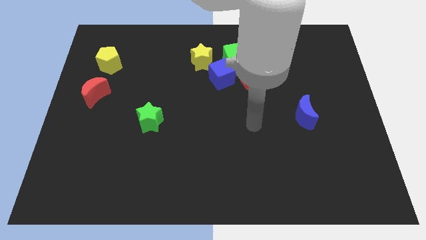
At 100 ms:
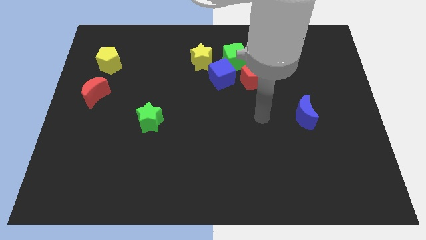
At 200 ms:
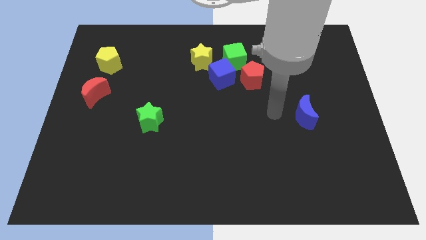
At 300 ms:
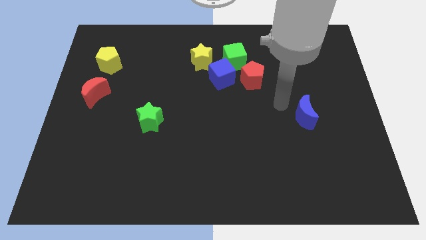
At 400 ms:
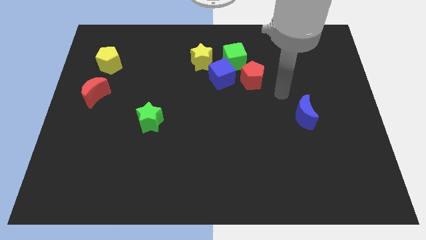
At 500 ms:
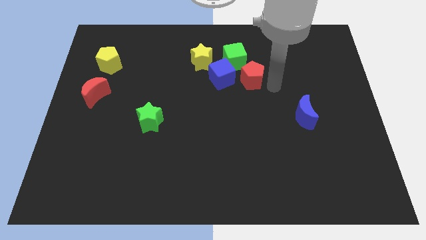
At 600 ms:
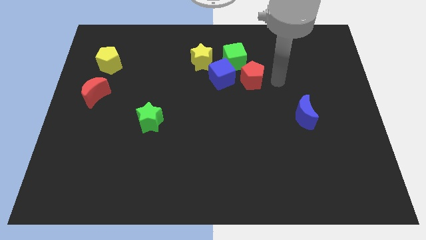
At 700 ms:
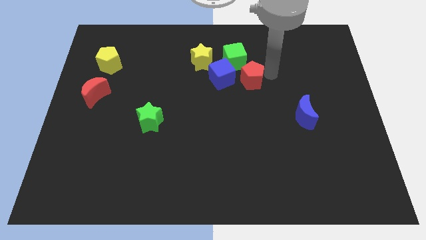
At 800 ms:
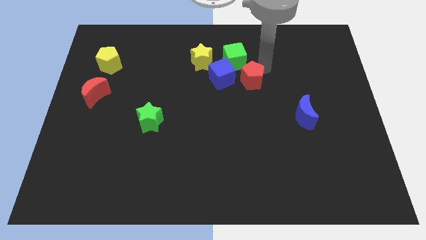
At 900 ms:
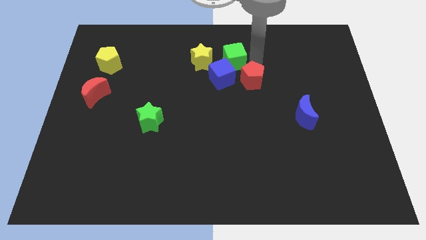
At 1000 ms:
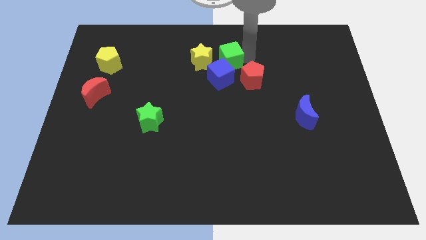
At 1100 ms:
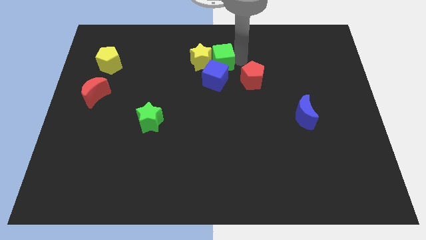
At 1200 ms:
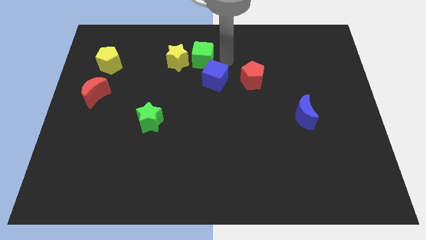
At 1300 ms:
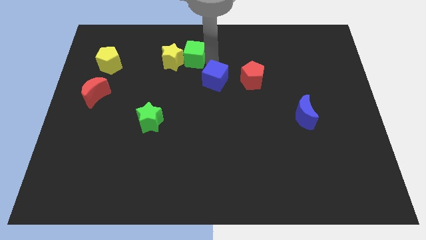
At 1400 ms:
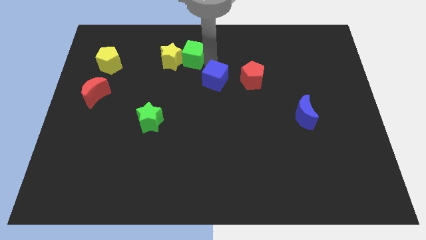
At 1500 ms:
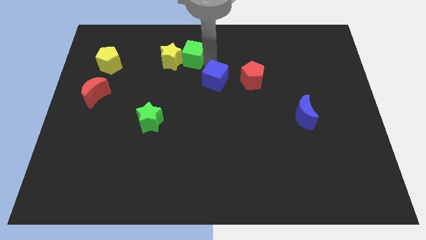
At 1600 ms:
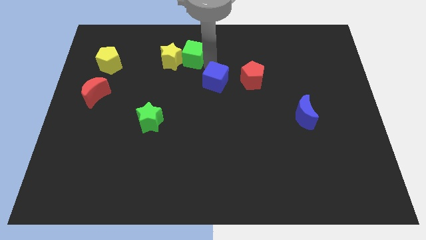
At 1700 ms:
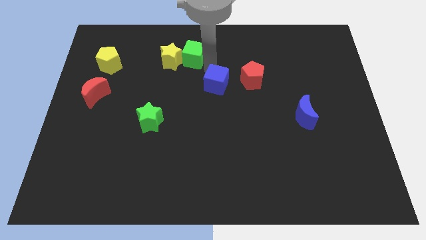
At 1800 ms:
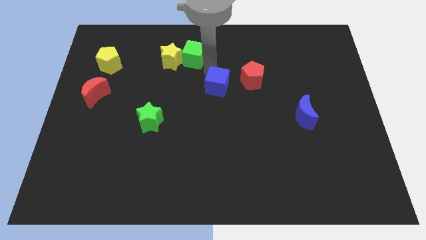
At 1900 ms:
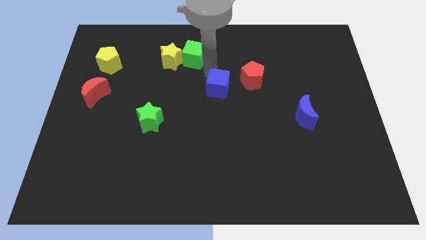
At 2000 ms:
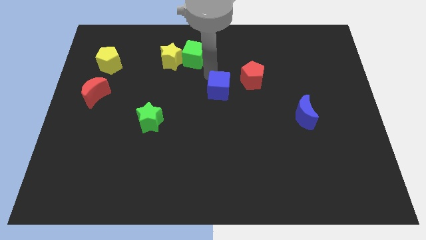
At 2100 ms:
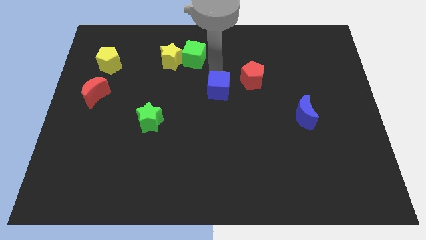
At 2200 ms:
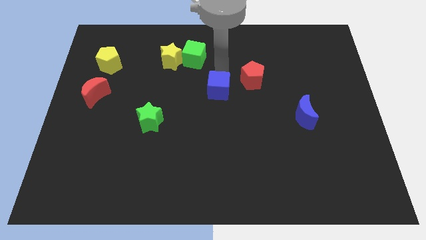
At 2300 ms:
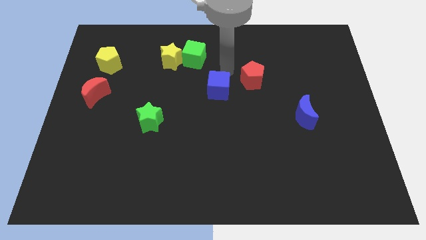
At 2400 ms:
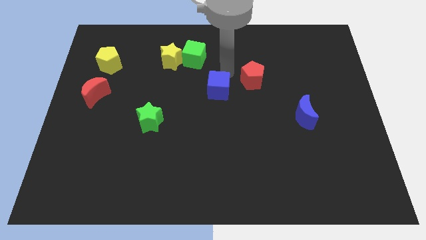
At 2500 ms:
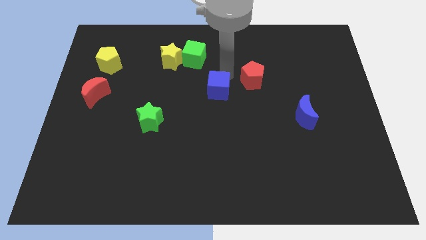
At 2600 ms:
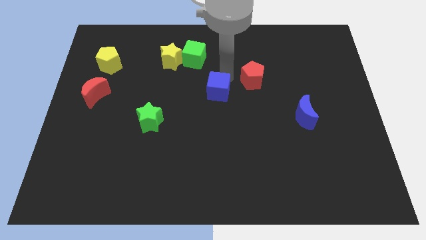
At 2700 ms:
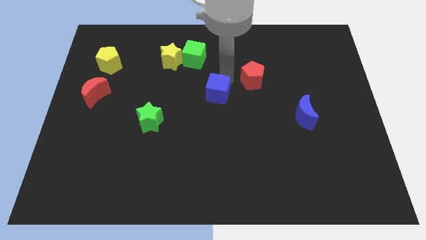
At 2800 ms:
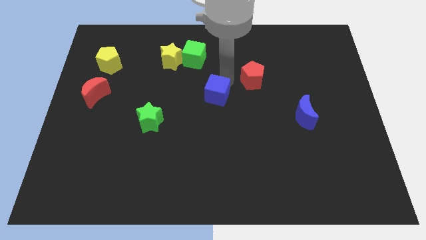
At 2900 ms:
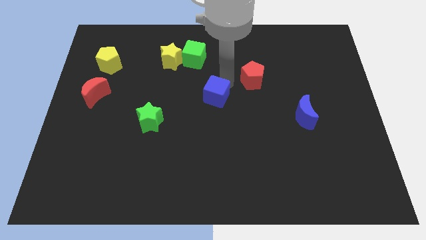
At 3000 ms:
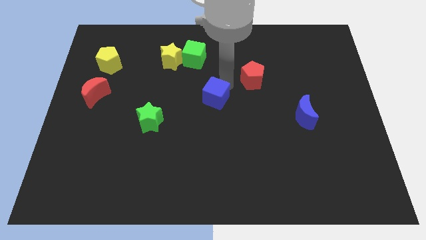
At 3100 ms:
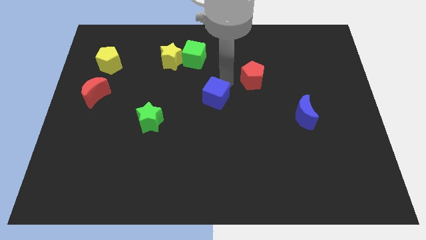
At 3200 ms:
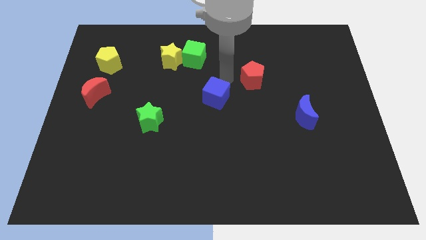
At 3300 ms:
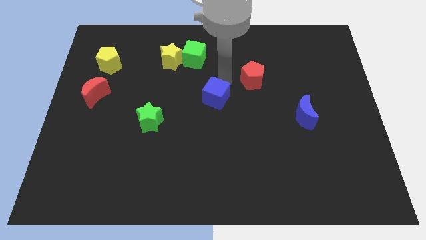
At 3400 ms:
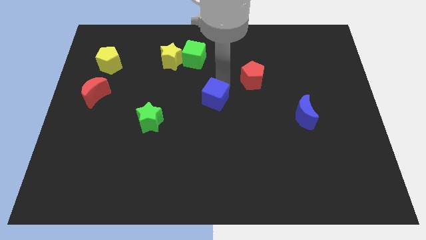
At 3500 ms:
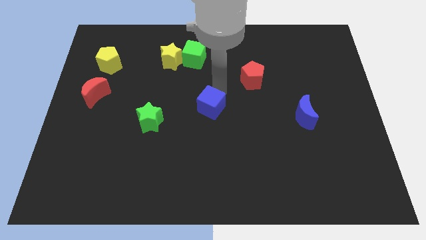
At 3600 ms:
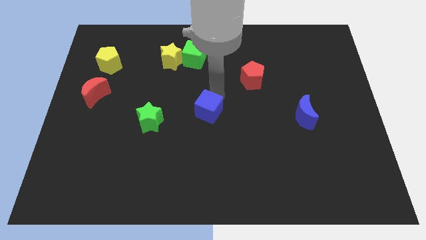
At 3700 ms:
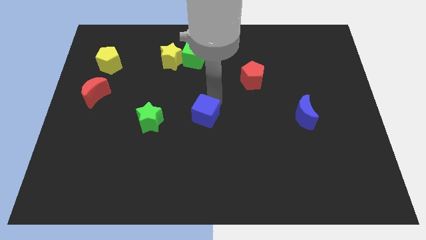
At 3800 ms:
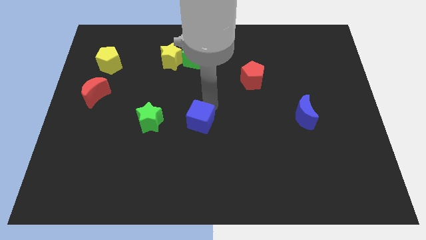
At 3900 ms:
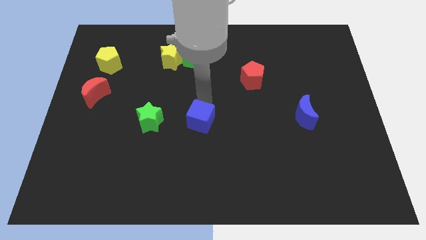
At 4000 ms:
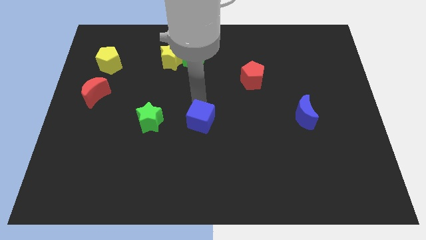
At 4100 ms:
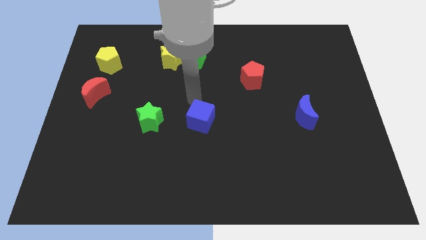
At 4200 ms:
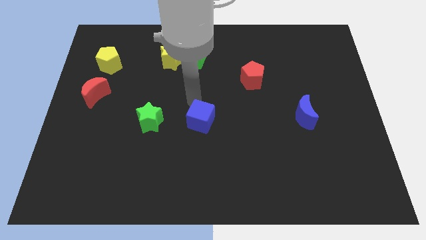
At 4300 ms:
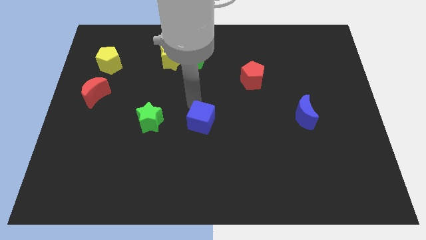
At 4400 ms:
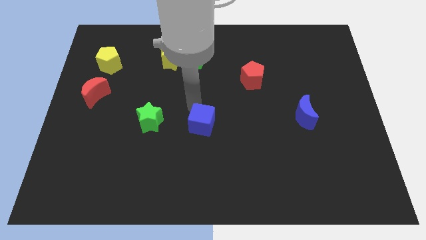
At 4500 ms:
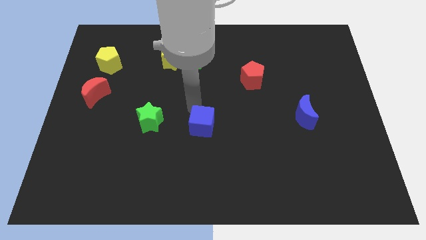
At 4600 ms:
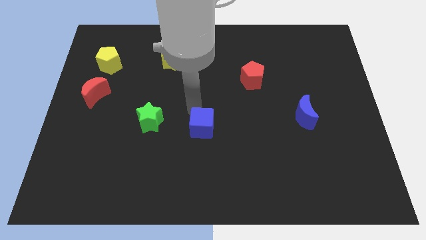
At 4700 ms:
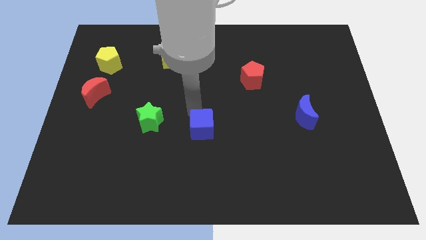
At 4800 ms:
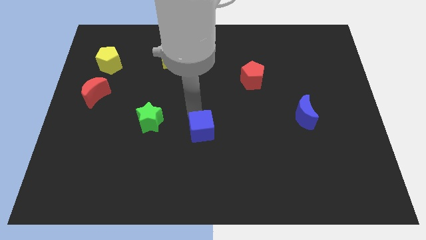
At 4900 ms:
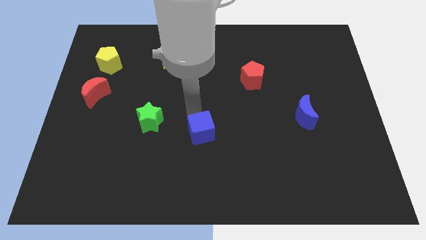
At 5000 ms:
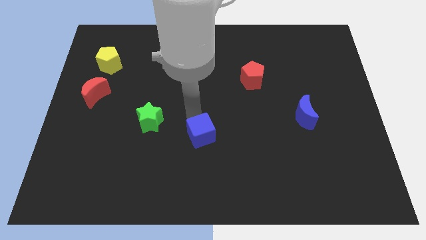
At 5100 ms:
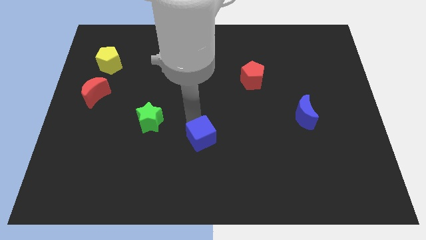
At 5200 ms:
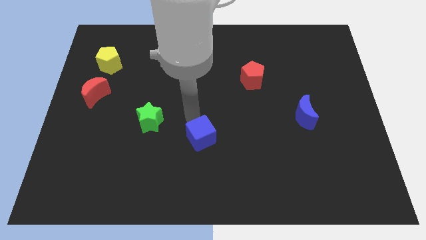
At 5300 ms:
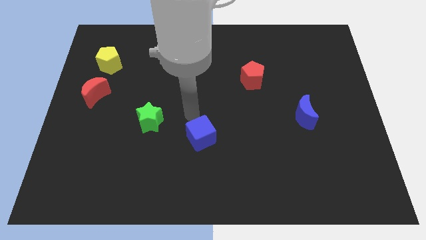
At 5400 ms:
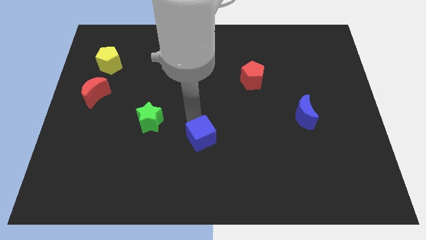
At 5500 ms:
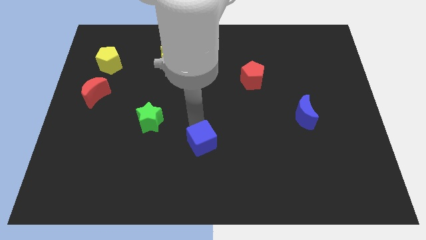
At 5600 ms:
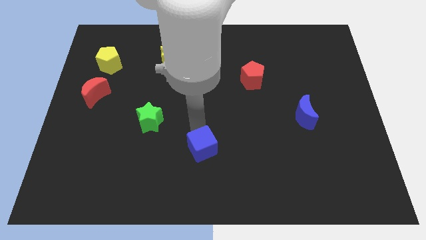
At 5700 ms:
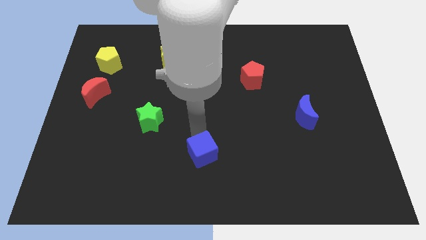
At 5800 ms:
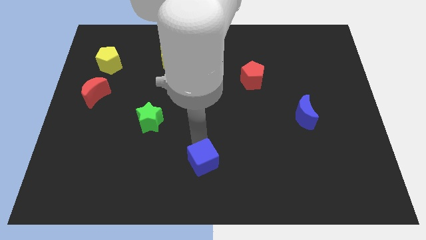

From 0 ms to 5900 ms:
push the blue cube to the bottom side

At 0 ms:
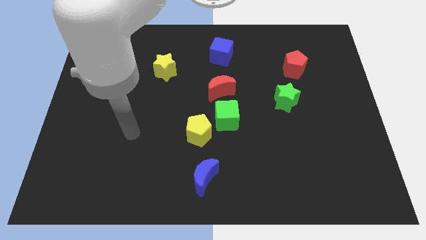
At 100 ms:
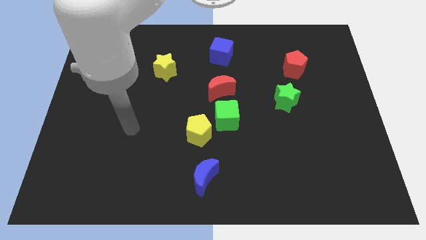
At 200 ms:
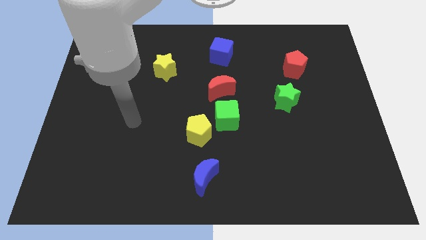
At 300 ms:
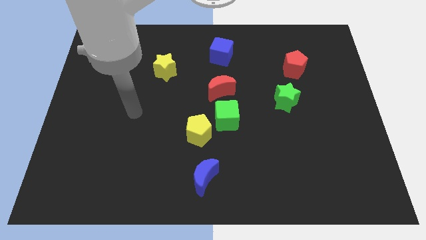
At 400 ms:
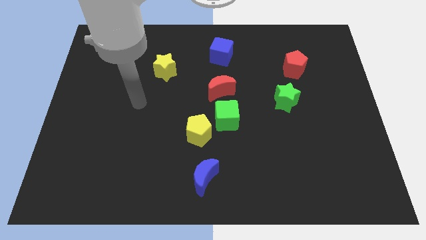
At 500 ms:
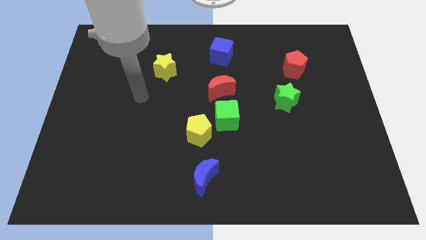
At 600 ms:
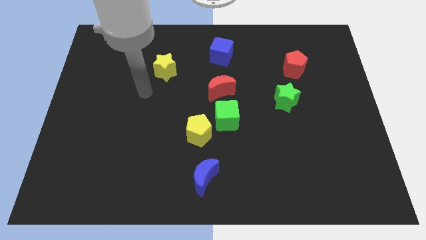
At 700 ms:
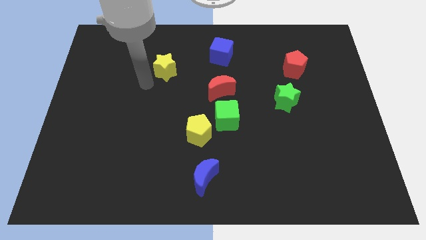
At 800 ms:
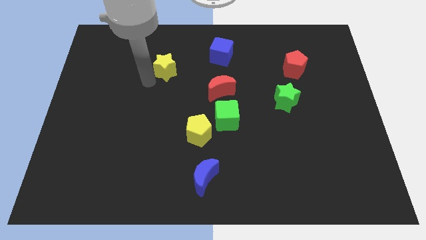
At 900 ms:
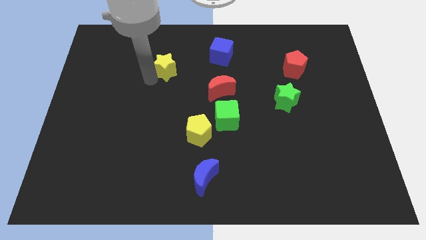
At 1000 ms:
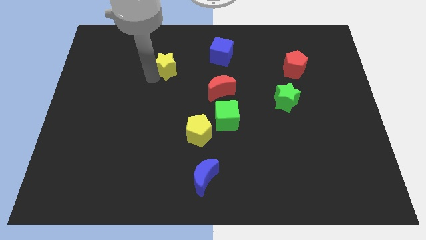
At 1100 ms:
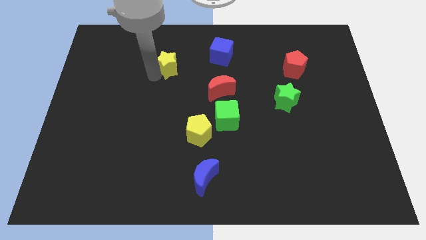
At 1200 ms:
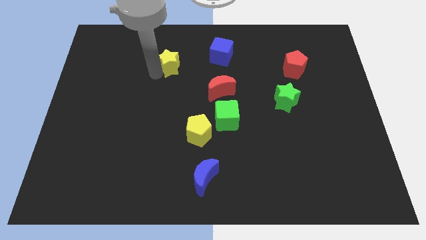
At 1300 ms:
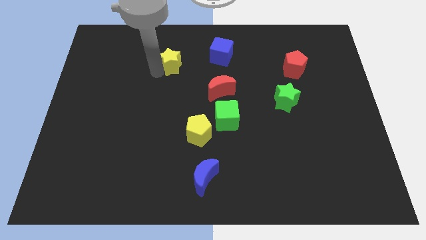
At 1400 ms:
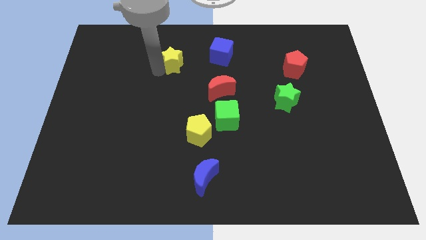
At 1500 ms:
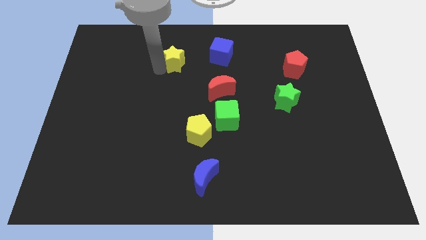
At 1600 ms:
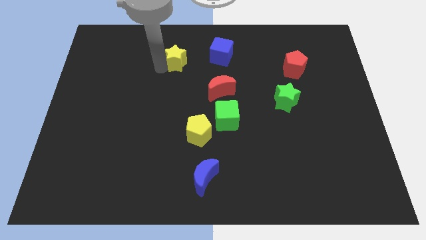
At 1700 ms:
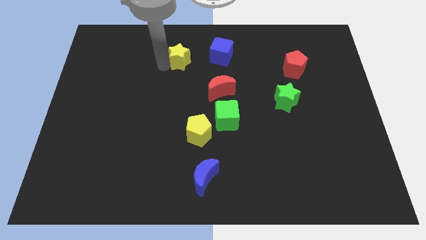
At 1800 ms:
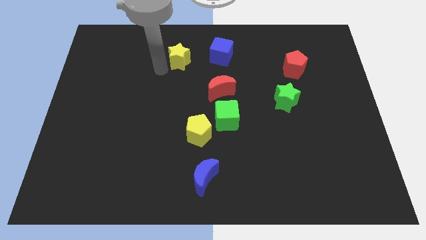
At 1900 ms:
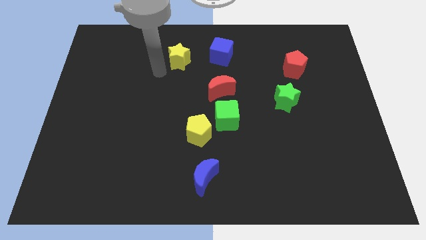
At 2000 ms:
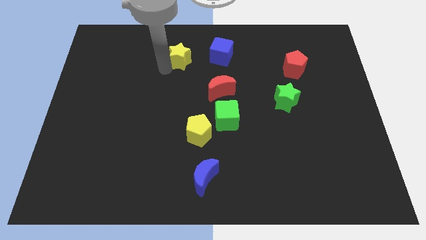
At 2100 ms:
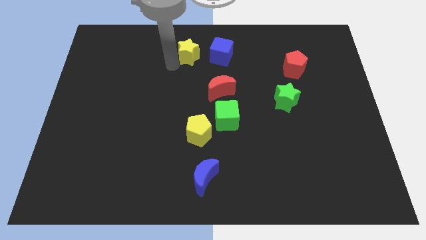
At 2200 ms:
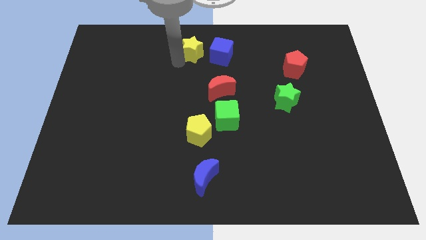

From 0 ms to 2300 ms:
move the yellow star to the top side
